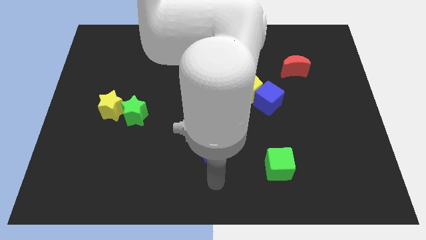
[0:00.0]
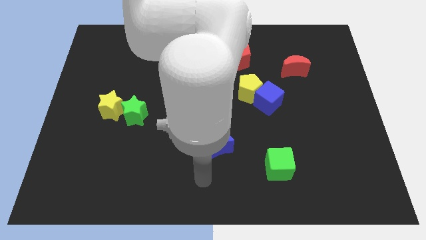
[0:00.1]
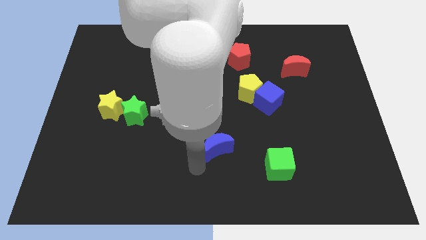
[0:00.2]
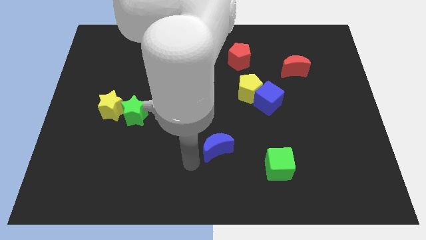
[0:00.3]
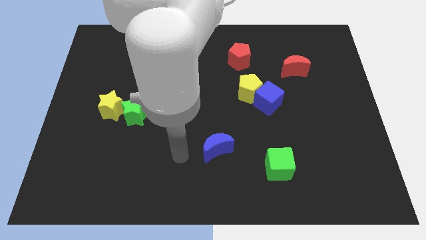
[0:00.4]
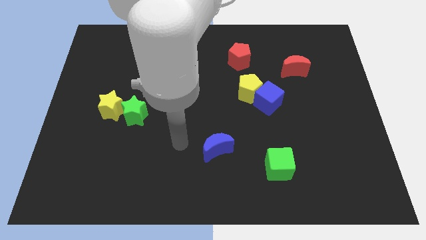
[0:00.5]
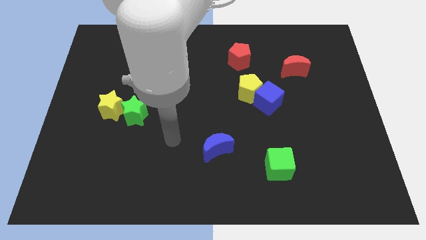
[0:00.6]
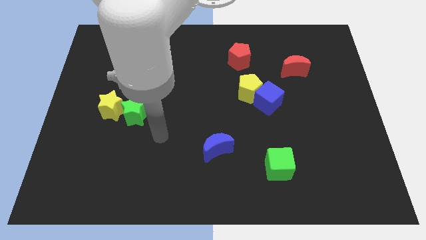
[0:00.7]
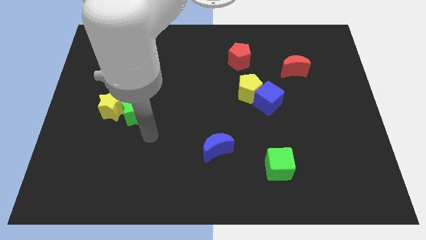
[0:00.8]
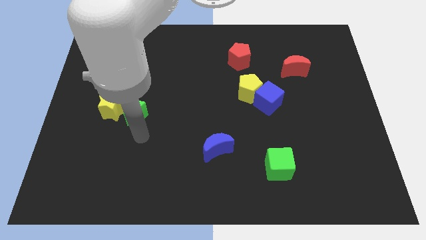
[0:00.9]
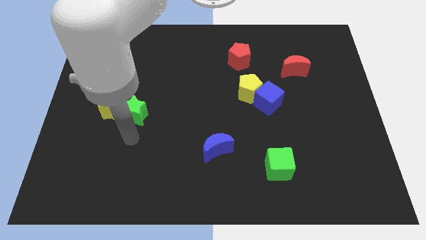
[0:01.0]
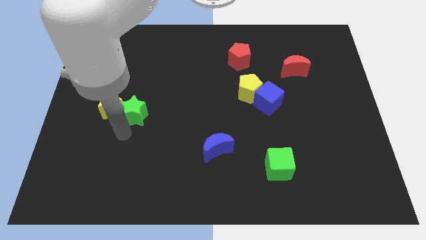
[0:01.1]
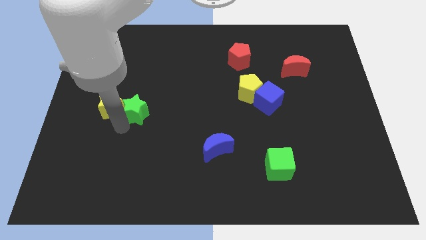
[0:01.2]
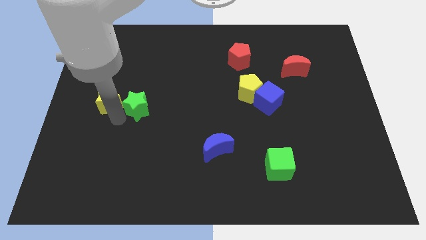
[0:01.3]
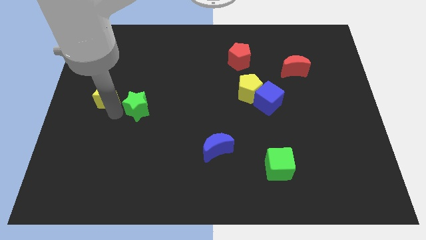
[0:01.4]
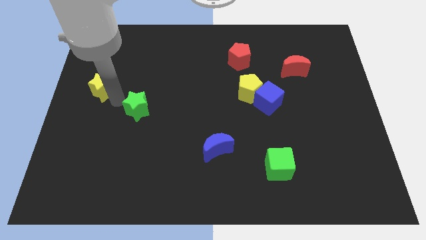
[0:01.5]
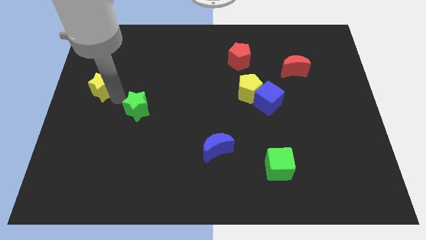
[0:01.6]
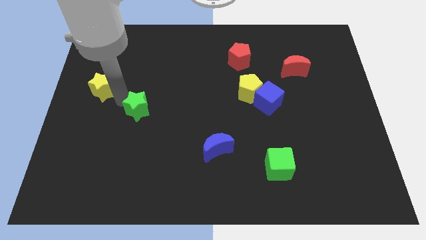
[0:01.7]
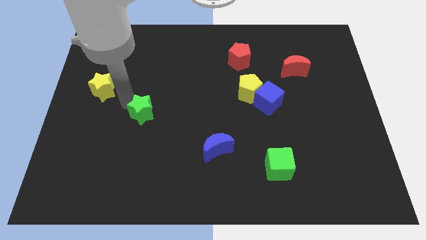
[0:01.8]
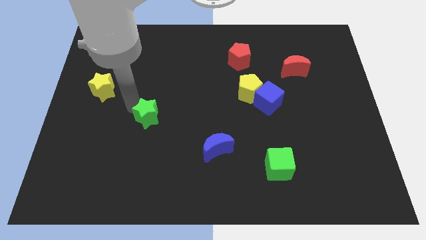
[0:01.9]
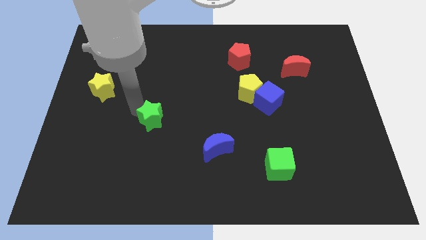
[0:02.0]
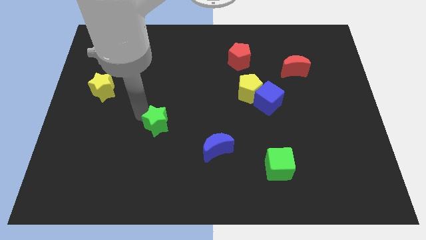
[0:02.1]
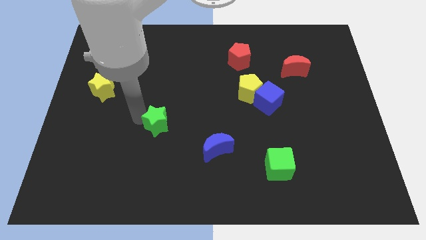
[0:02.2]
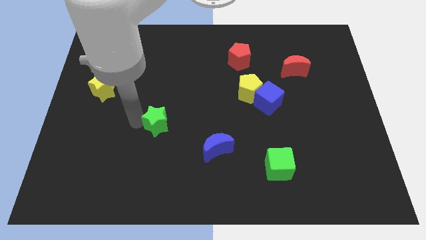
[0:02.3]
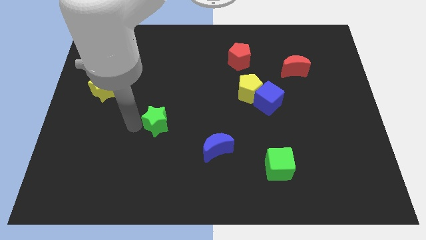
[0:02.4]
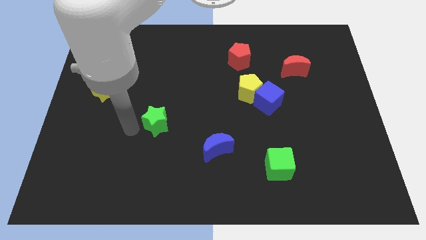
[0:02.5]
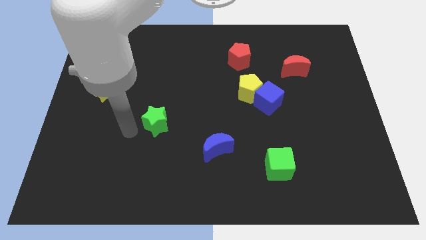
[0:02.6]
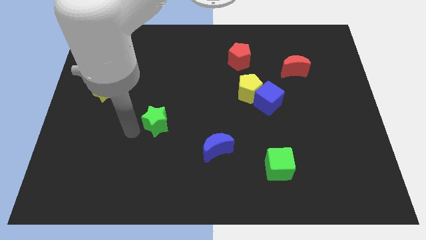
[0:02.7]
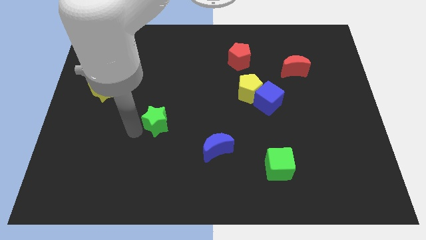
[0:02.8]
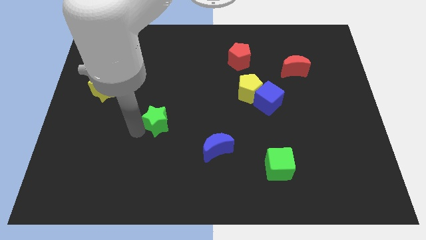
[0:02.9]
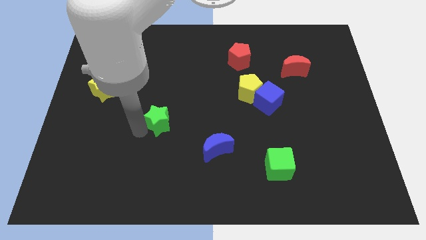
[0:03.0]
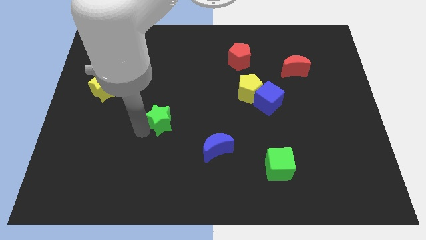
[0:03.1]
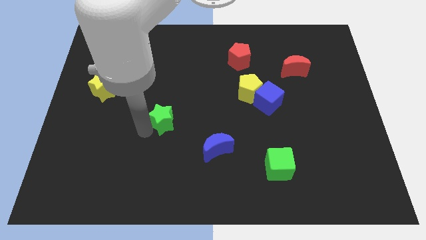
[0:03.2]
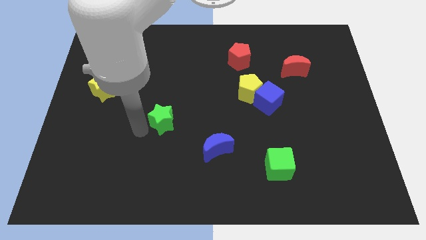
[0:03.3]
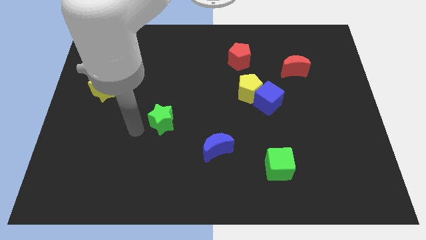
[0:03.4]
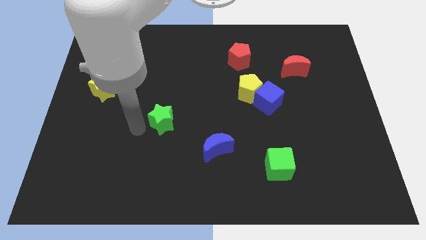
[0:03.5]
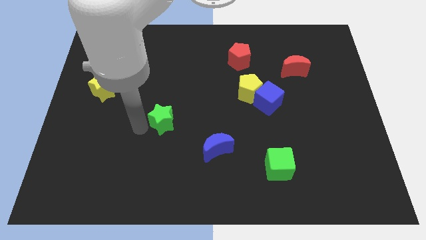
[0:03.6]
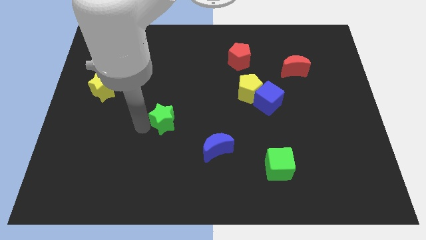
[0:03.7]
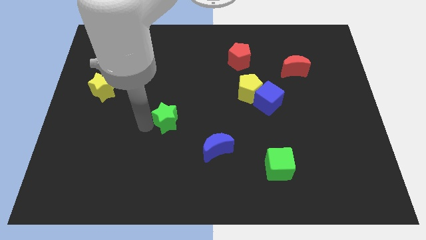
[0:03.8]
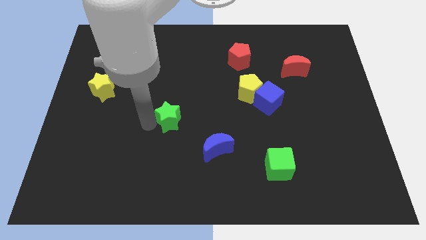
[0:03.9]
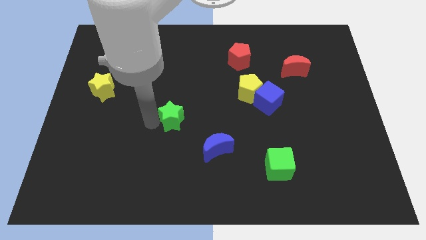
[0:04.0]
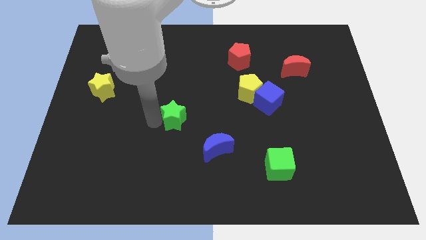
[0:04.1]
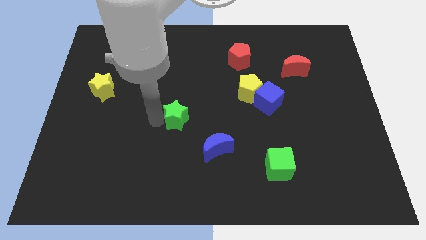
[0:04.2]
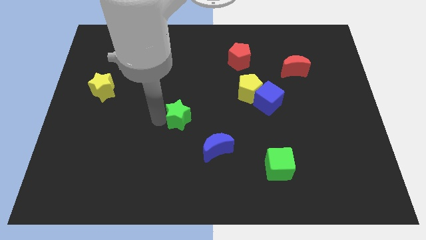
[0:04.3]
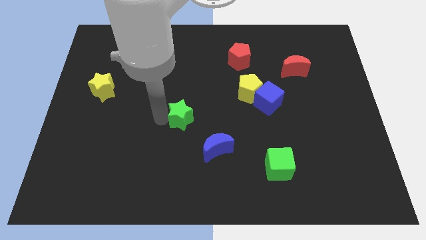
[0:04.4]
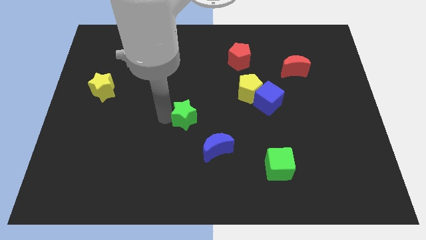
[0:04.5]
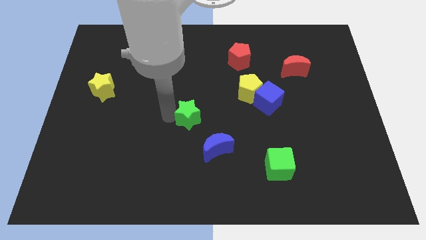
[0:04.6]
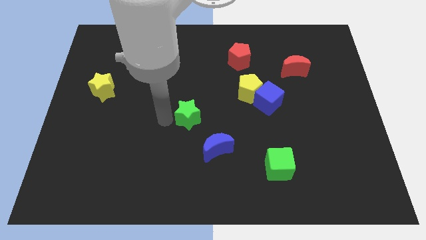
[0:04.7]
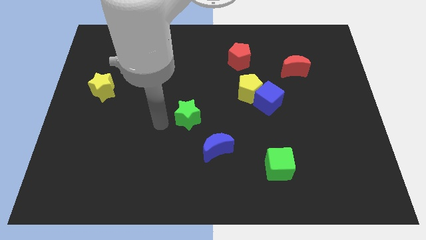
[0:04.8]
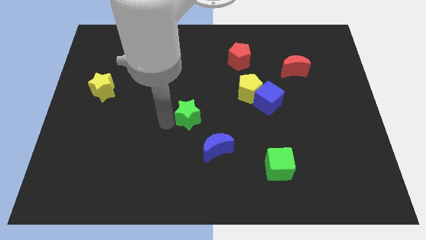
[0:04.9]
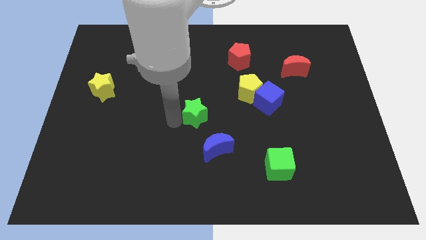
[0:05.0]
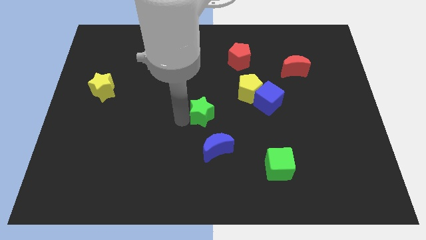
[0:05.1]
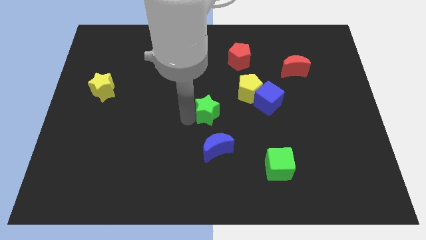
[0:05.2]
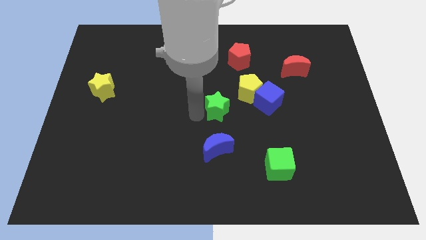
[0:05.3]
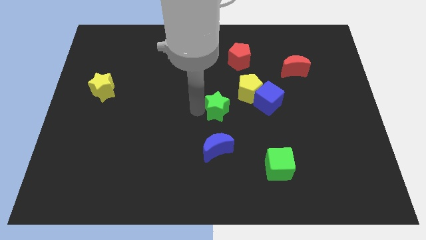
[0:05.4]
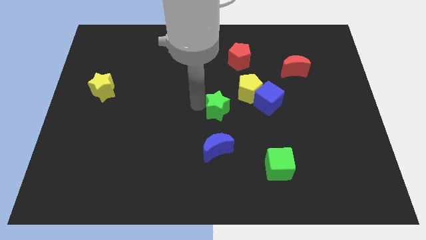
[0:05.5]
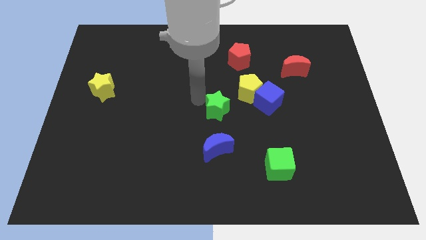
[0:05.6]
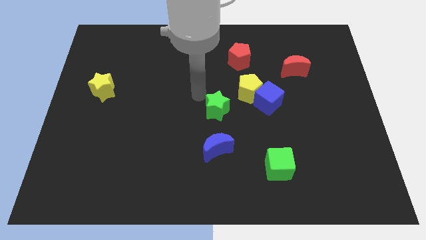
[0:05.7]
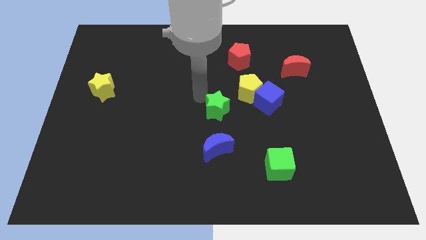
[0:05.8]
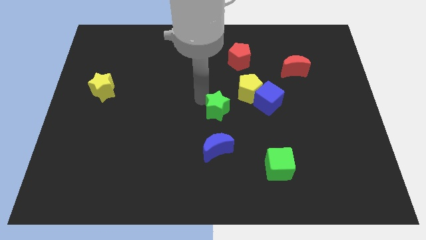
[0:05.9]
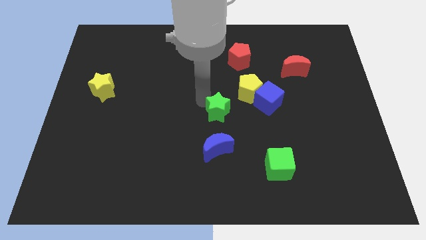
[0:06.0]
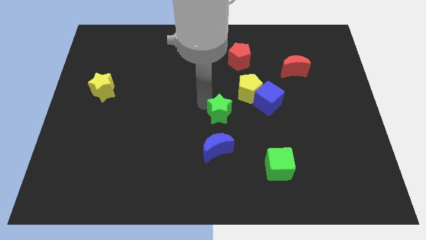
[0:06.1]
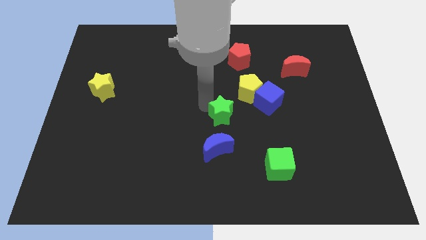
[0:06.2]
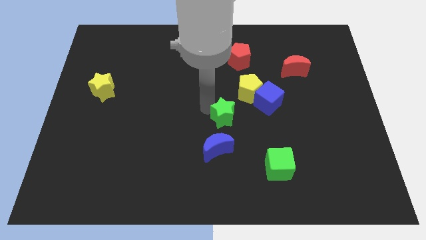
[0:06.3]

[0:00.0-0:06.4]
push the green star diagonally up and to the right of the blue moon

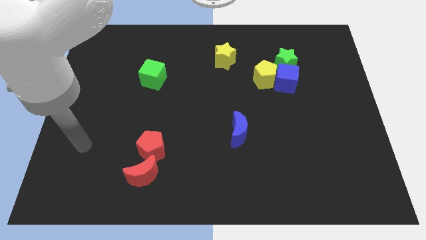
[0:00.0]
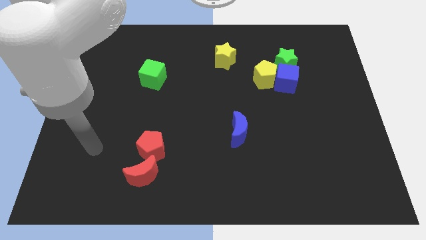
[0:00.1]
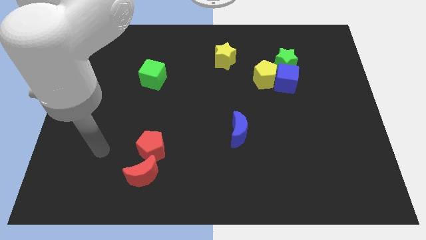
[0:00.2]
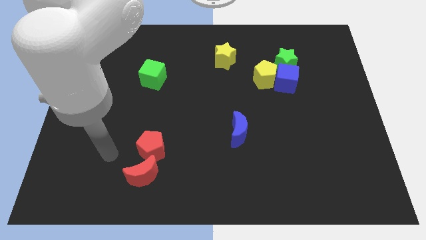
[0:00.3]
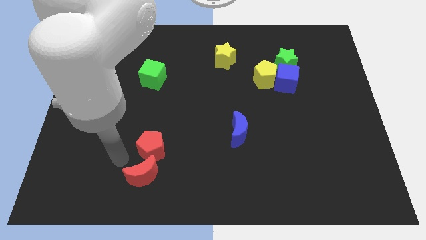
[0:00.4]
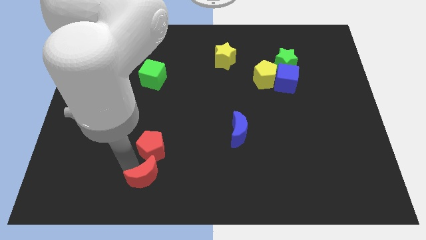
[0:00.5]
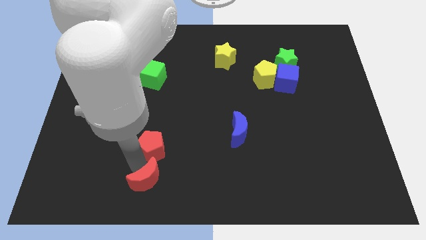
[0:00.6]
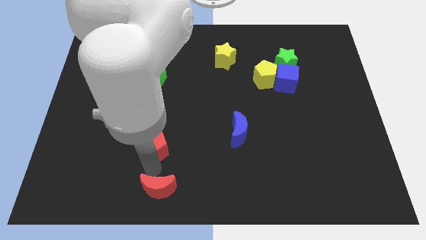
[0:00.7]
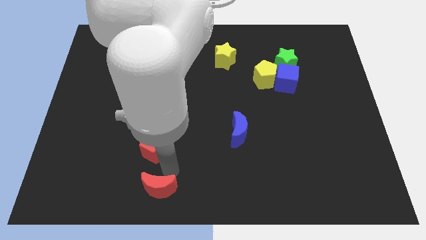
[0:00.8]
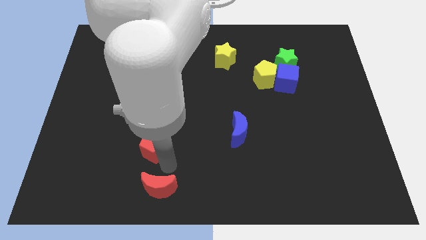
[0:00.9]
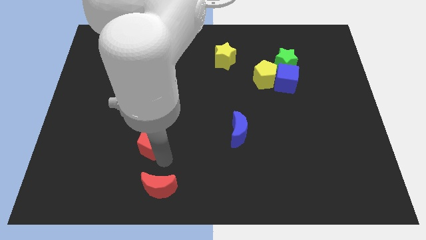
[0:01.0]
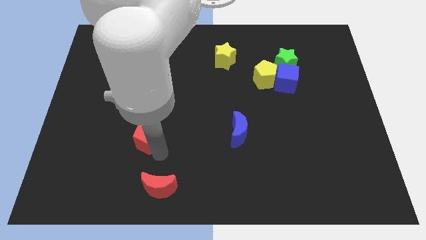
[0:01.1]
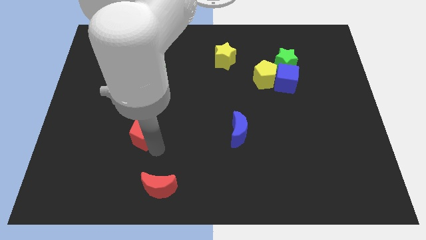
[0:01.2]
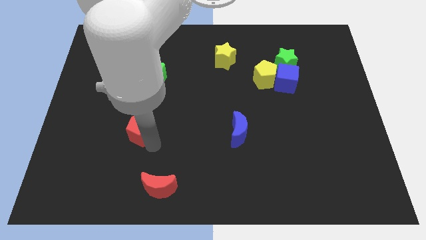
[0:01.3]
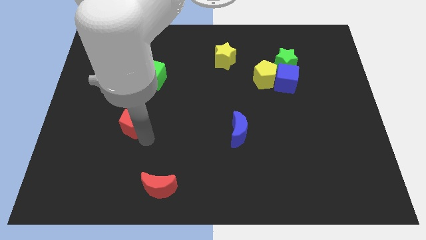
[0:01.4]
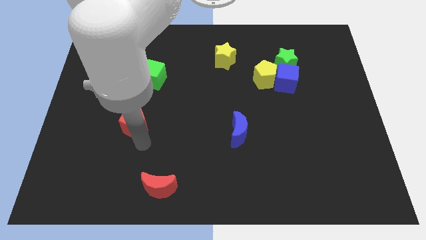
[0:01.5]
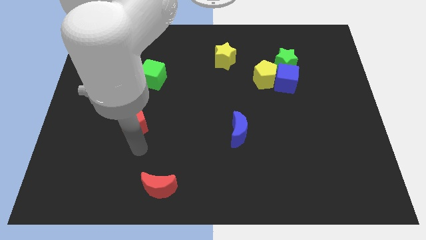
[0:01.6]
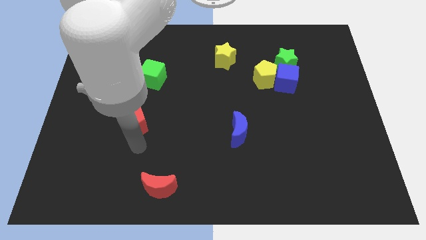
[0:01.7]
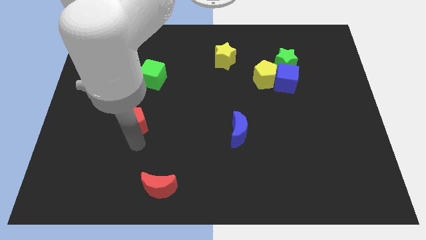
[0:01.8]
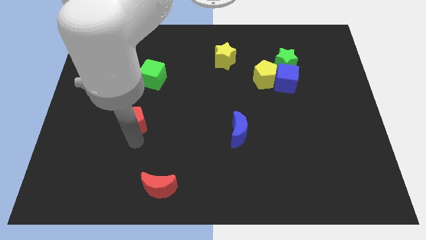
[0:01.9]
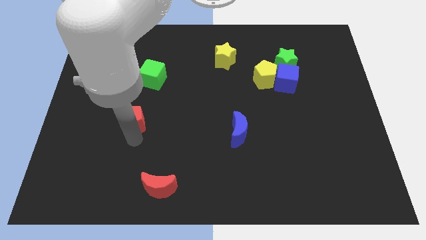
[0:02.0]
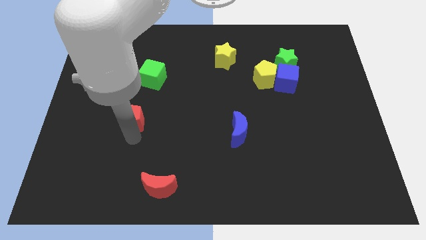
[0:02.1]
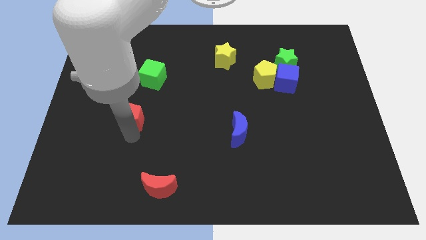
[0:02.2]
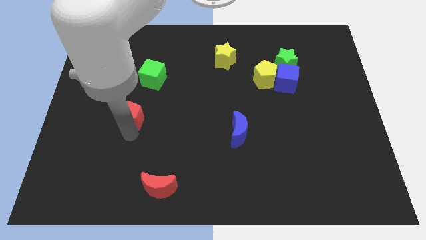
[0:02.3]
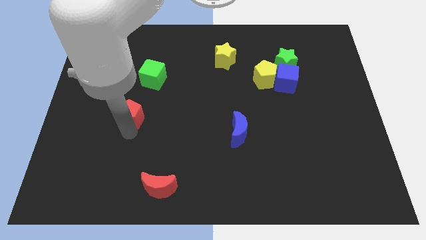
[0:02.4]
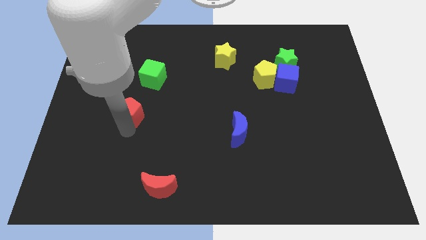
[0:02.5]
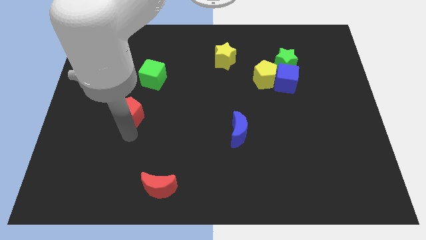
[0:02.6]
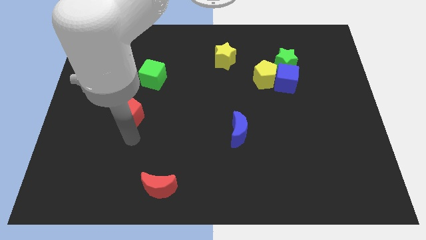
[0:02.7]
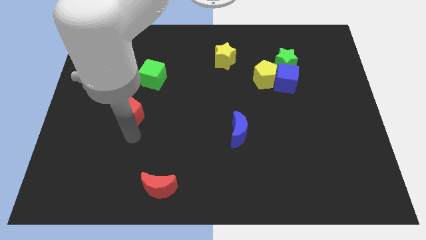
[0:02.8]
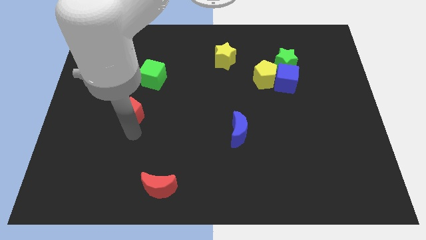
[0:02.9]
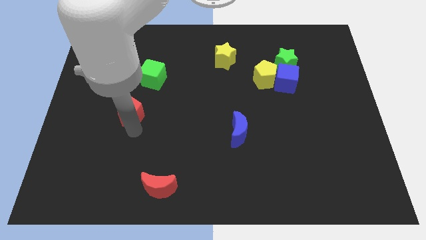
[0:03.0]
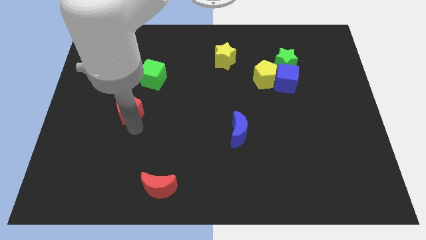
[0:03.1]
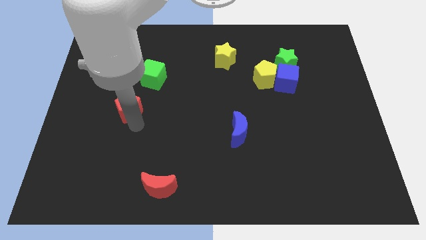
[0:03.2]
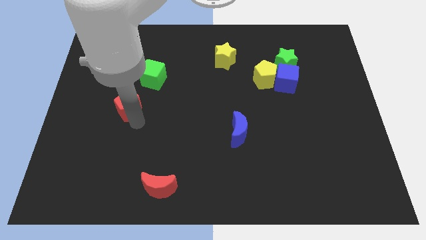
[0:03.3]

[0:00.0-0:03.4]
slide the red pentagon to the bottom left side of the green cube
